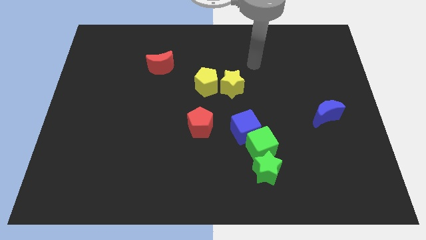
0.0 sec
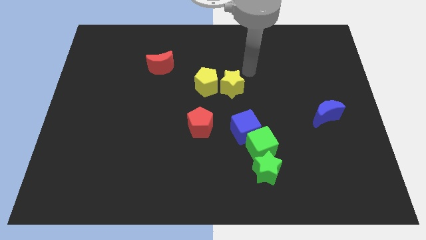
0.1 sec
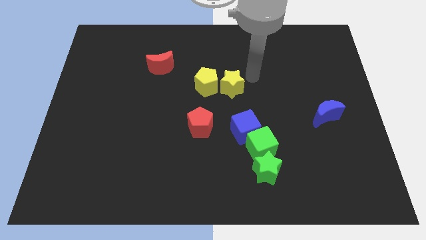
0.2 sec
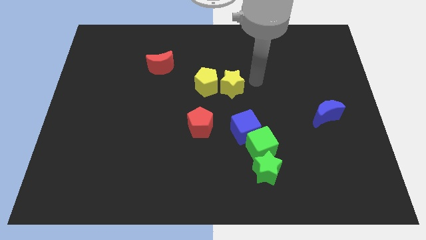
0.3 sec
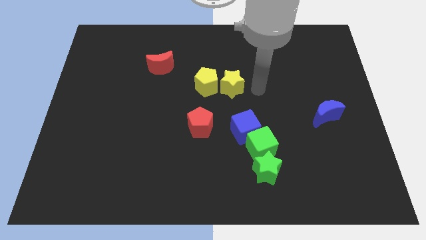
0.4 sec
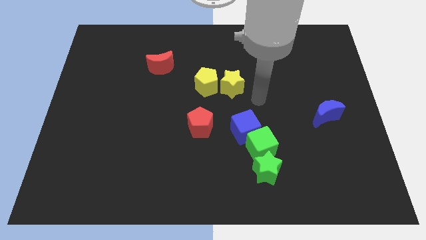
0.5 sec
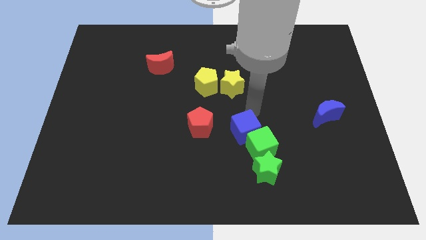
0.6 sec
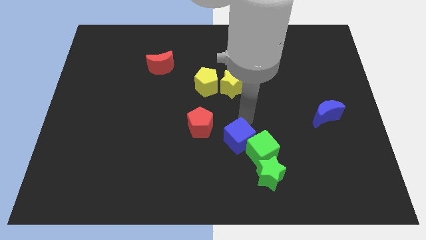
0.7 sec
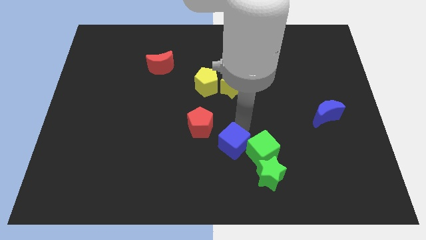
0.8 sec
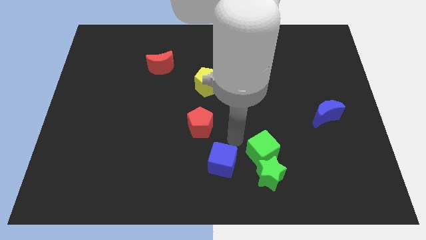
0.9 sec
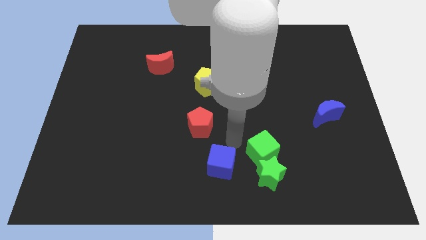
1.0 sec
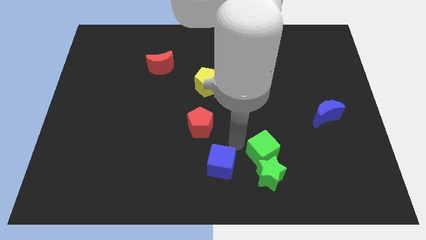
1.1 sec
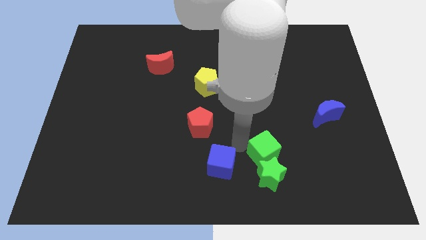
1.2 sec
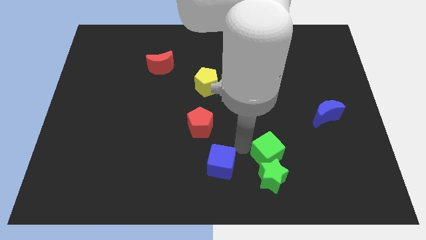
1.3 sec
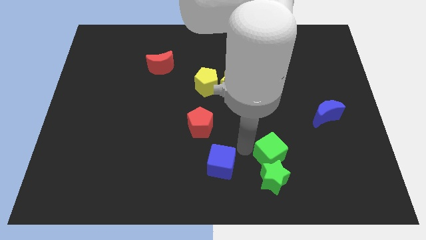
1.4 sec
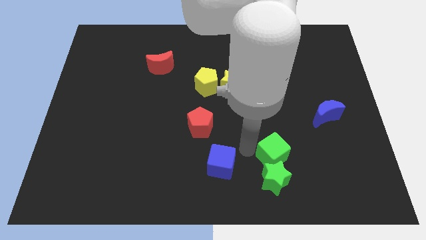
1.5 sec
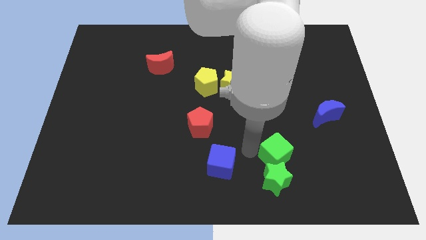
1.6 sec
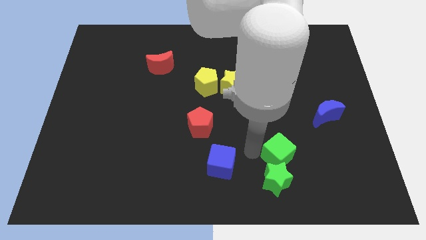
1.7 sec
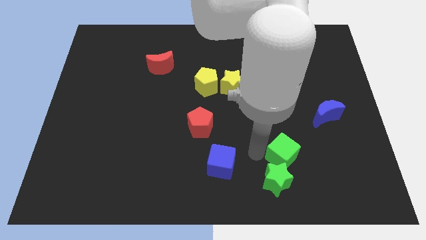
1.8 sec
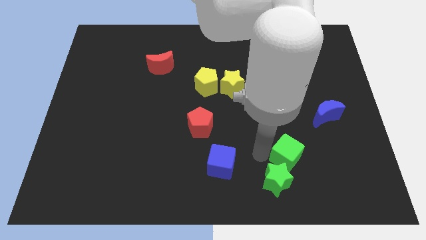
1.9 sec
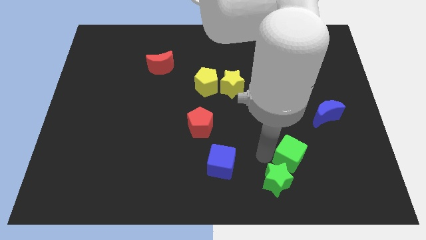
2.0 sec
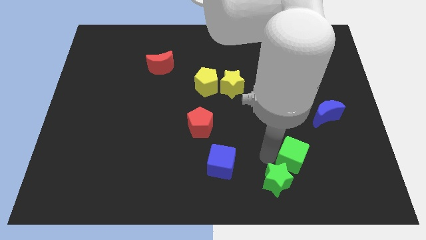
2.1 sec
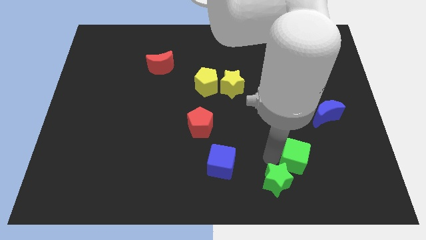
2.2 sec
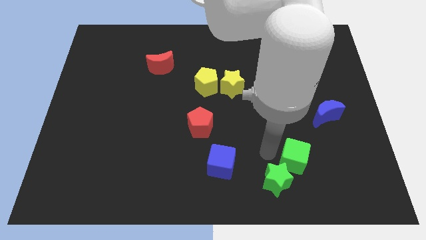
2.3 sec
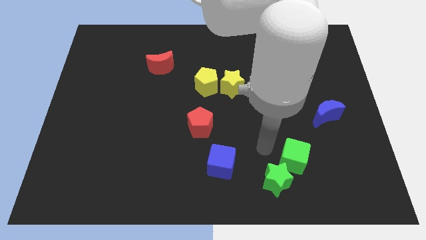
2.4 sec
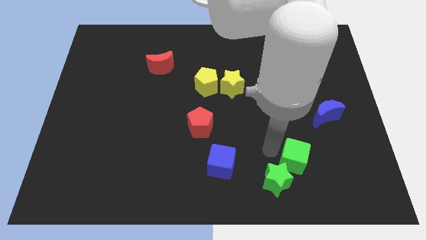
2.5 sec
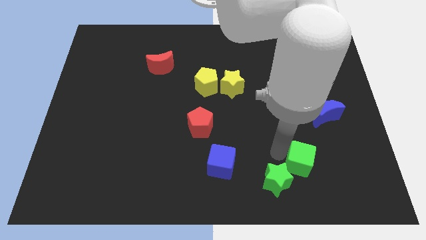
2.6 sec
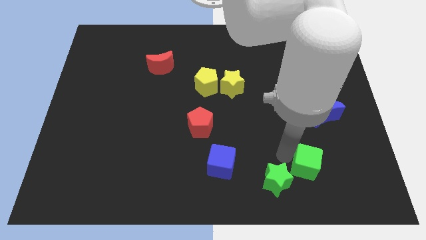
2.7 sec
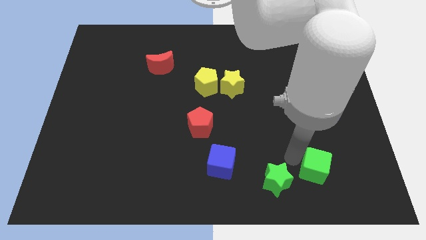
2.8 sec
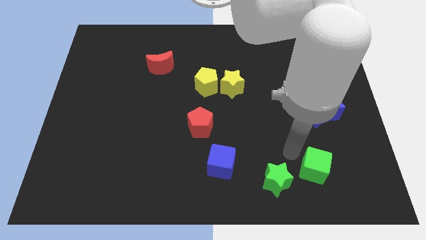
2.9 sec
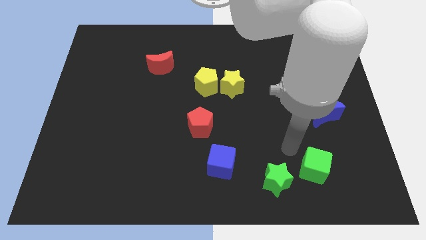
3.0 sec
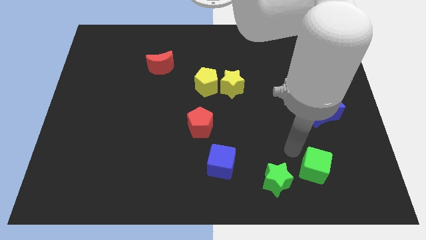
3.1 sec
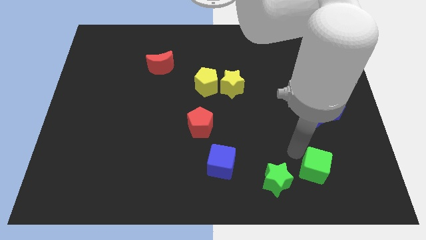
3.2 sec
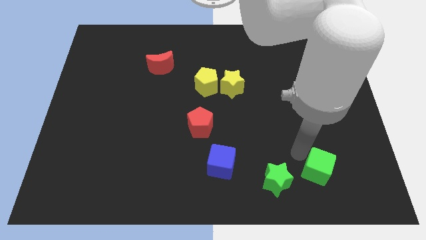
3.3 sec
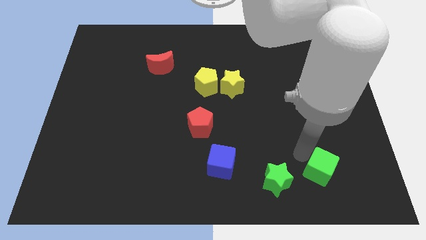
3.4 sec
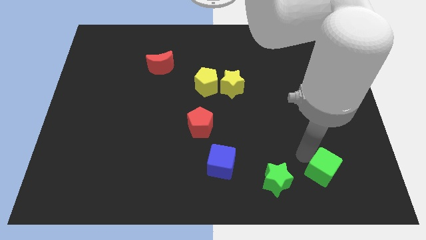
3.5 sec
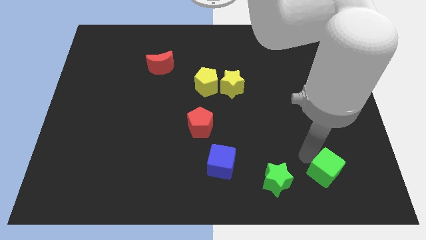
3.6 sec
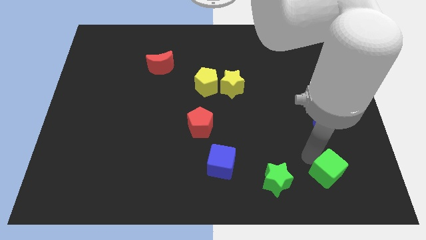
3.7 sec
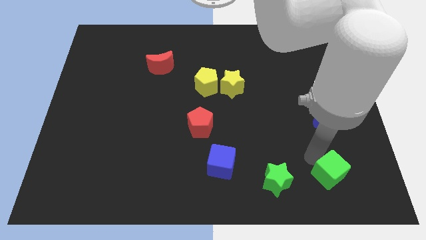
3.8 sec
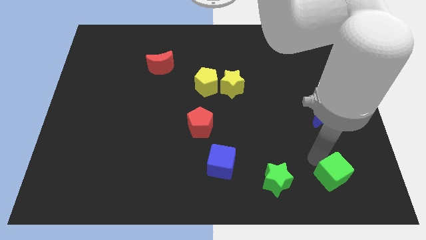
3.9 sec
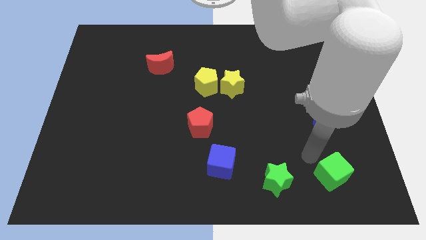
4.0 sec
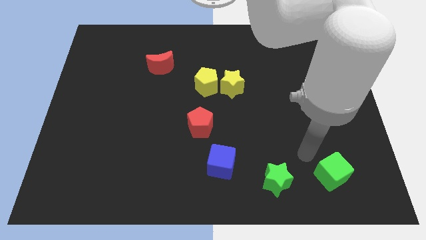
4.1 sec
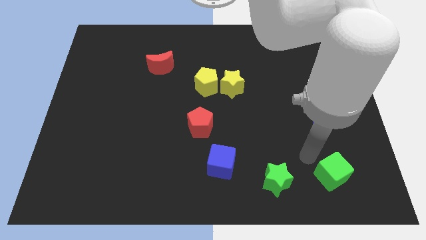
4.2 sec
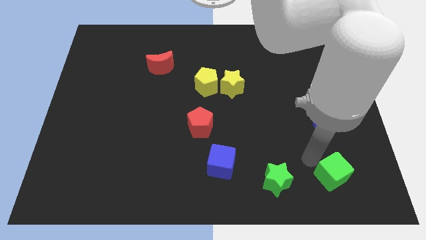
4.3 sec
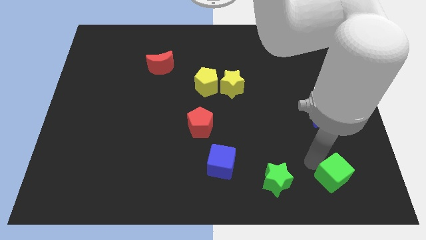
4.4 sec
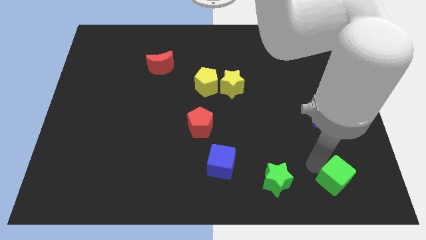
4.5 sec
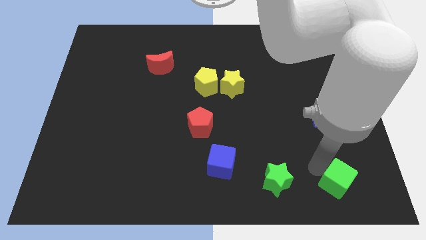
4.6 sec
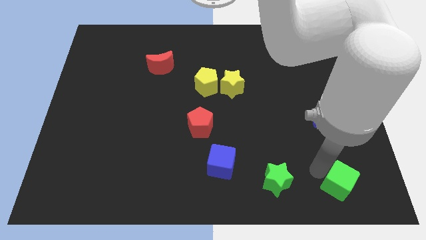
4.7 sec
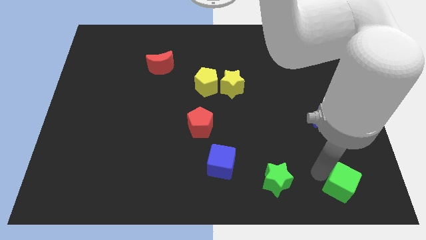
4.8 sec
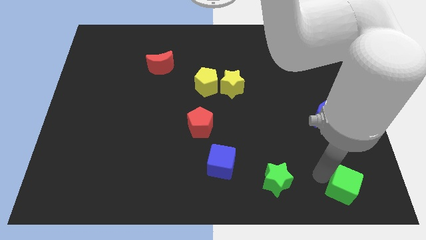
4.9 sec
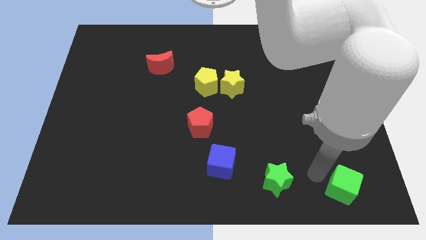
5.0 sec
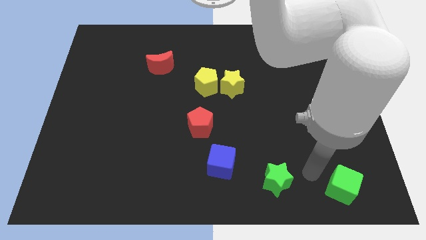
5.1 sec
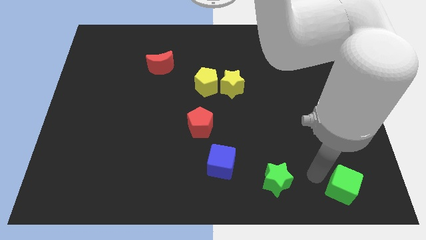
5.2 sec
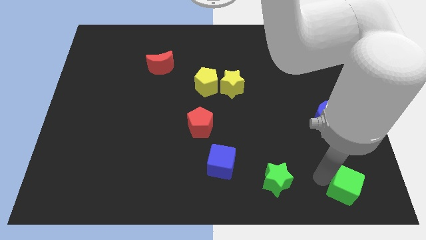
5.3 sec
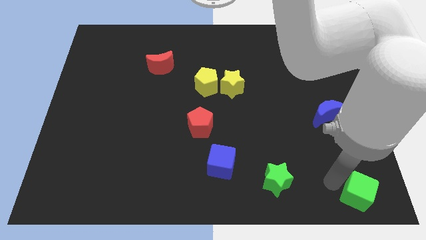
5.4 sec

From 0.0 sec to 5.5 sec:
slide the green cube to the bottom right

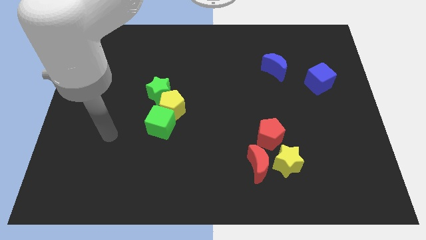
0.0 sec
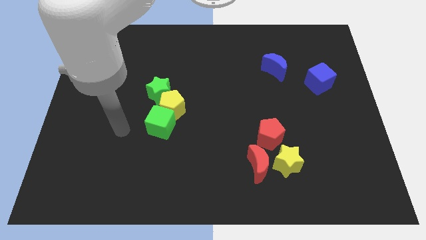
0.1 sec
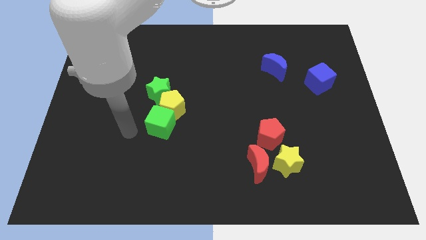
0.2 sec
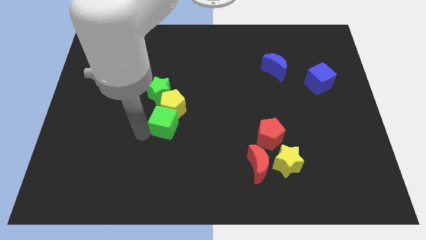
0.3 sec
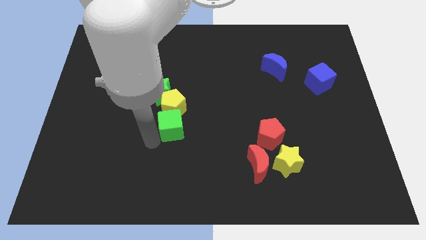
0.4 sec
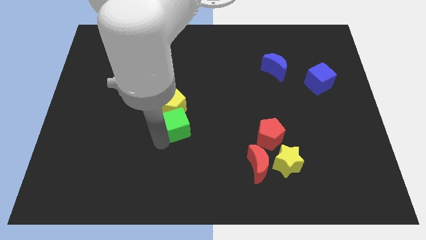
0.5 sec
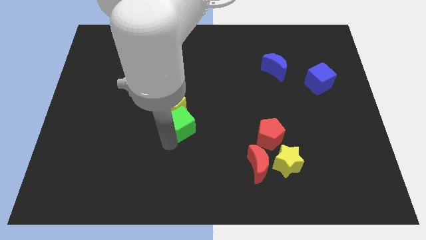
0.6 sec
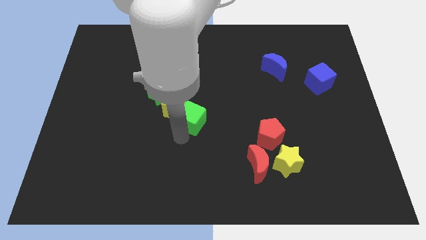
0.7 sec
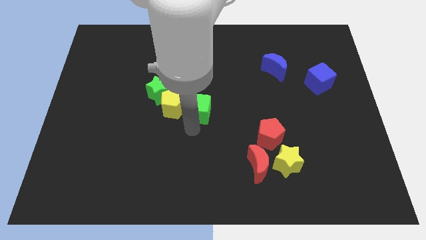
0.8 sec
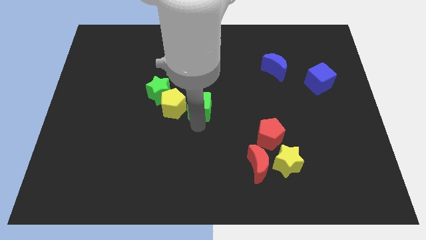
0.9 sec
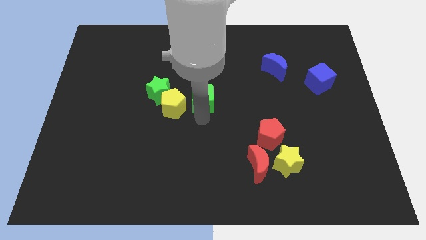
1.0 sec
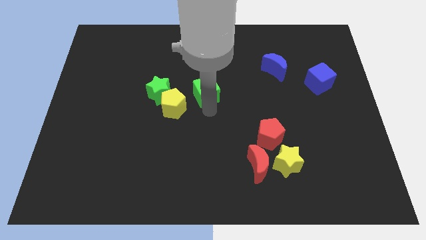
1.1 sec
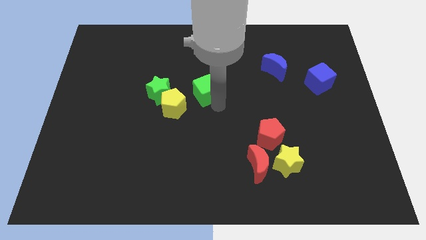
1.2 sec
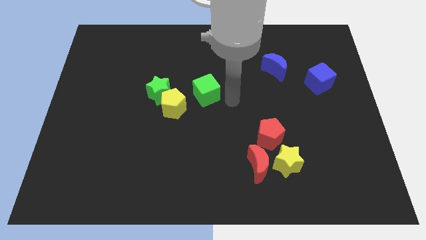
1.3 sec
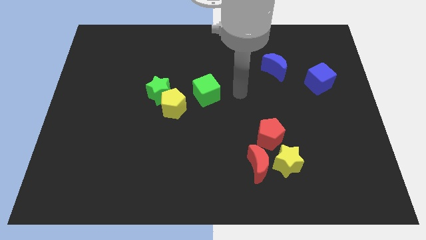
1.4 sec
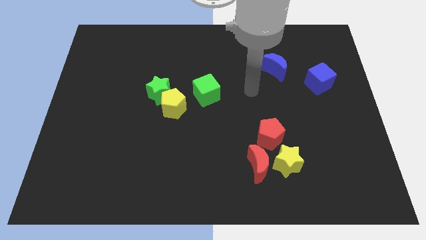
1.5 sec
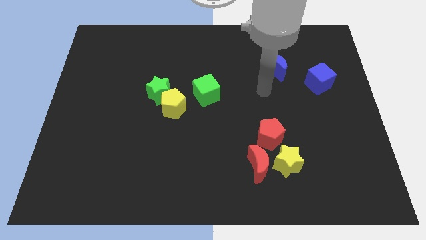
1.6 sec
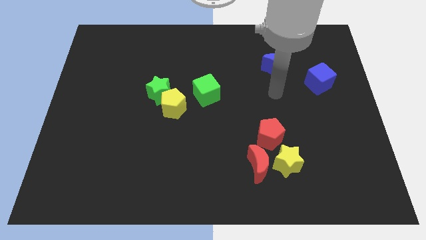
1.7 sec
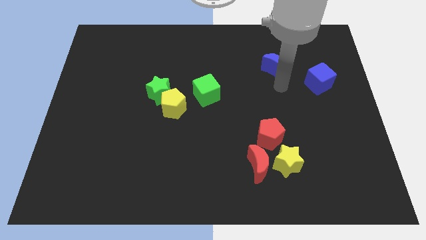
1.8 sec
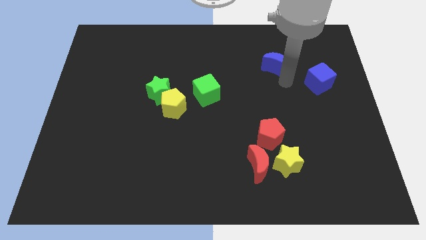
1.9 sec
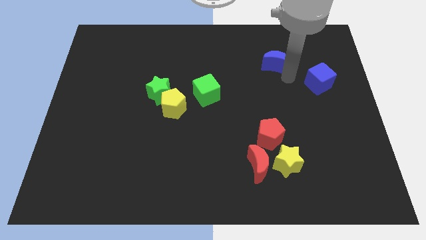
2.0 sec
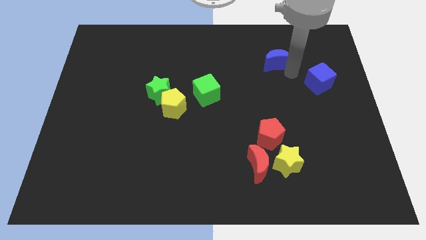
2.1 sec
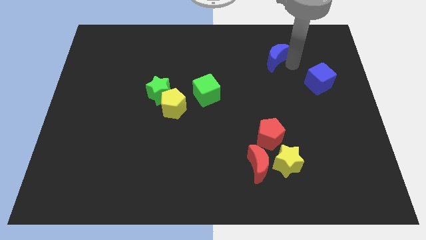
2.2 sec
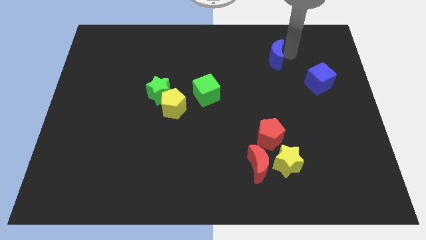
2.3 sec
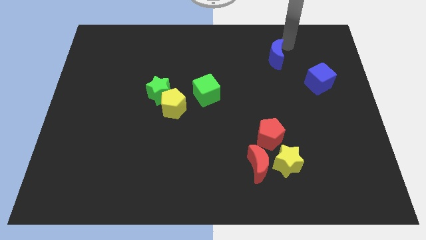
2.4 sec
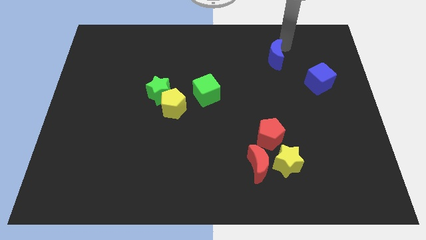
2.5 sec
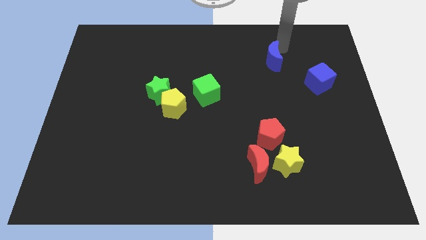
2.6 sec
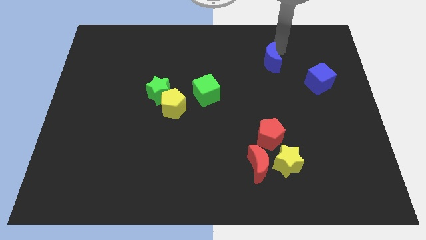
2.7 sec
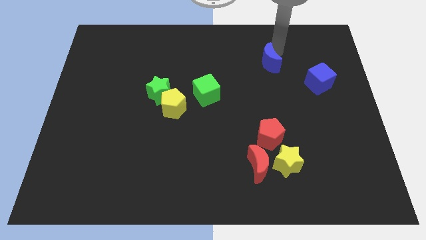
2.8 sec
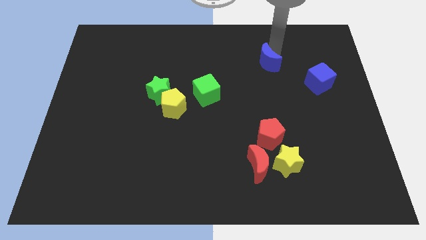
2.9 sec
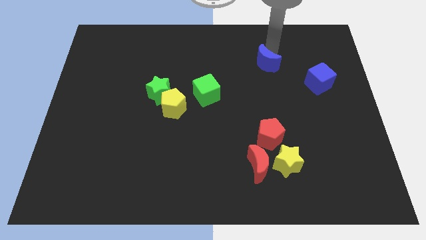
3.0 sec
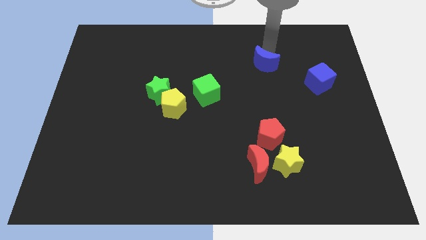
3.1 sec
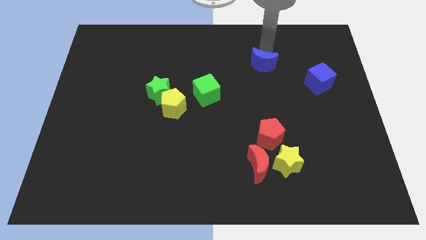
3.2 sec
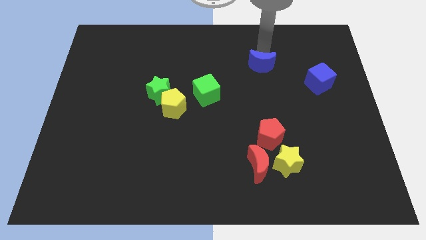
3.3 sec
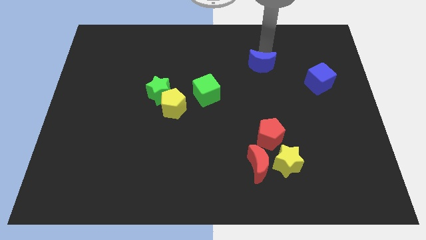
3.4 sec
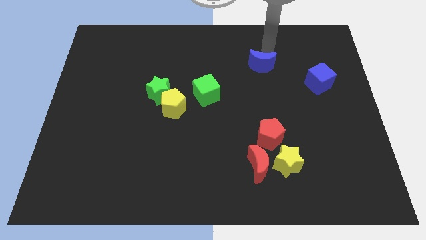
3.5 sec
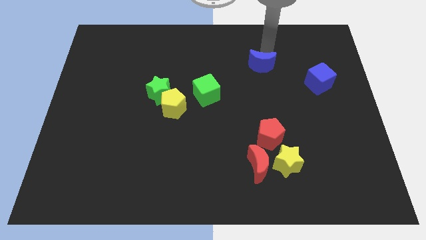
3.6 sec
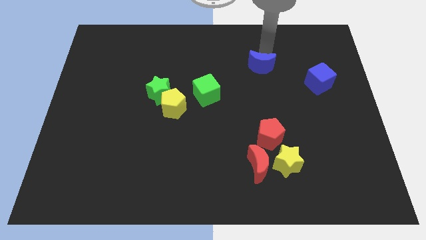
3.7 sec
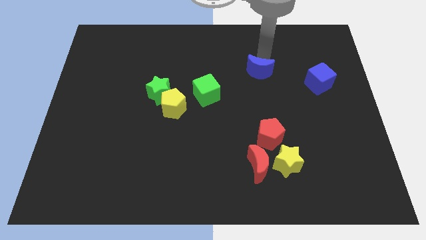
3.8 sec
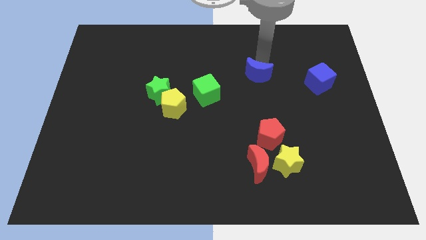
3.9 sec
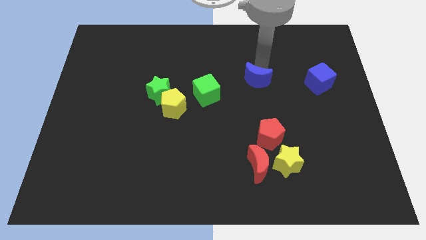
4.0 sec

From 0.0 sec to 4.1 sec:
move the blue moon to the middle of the board
